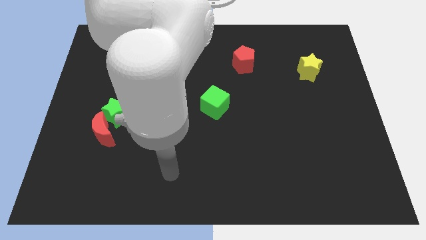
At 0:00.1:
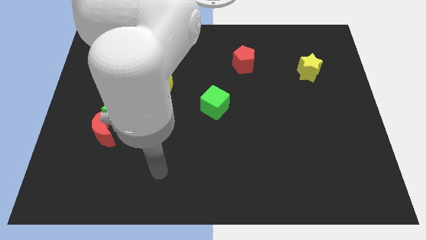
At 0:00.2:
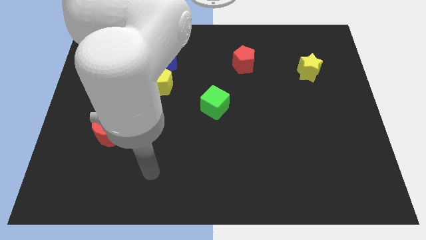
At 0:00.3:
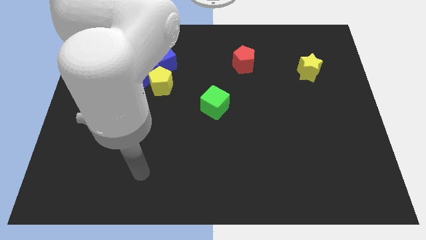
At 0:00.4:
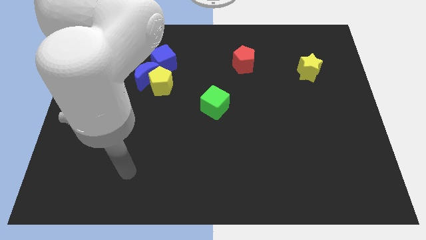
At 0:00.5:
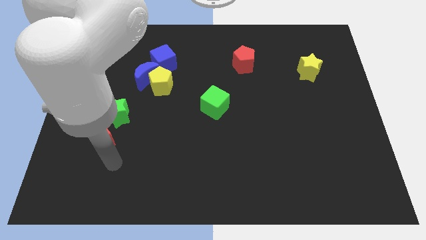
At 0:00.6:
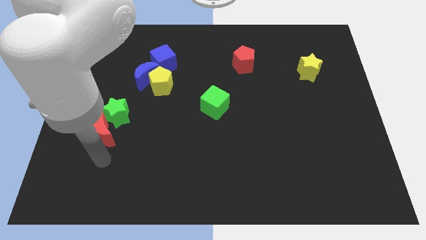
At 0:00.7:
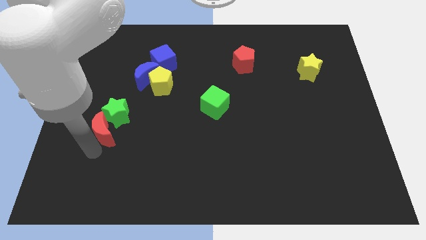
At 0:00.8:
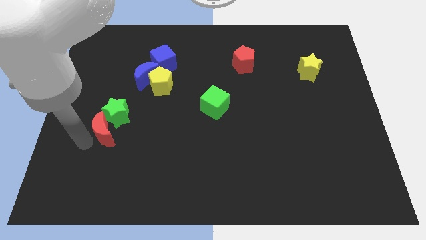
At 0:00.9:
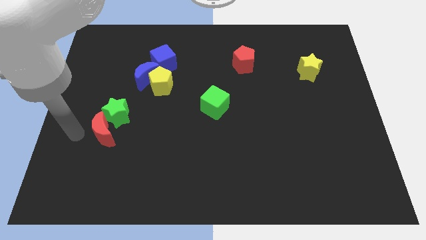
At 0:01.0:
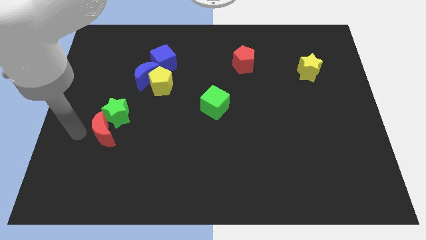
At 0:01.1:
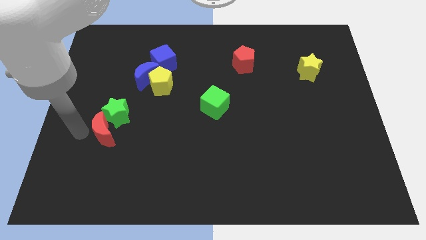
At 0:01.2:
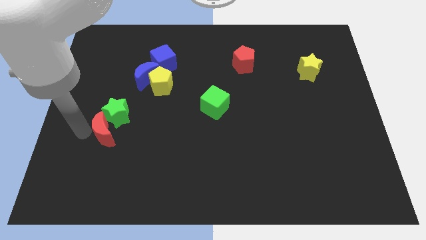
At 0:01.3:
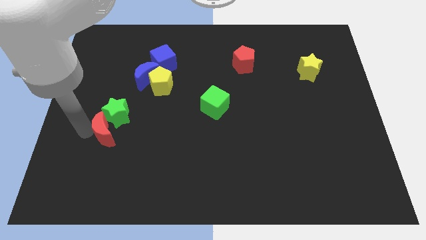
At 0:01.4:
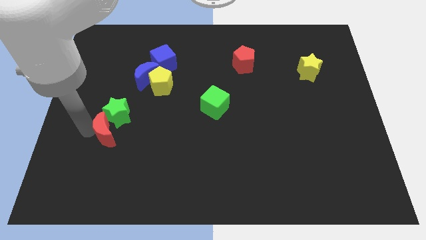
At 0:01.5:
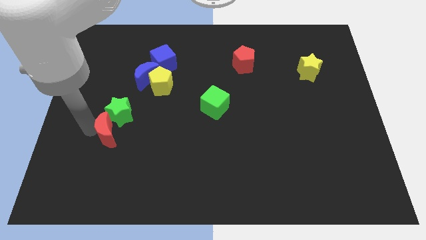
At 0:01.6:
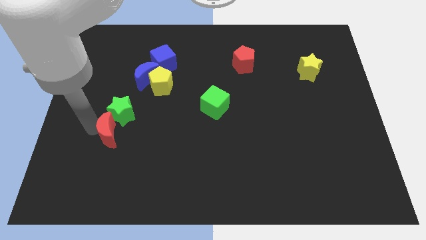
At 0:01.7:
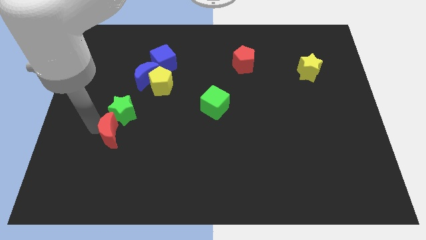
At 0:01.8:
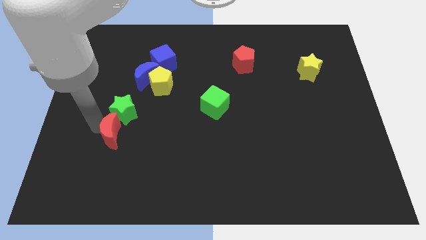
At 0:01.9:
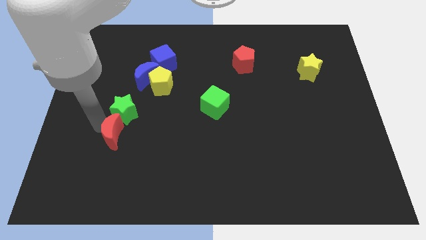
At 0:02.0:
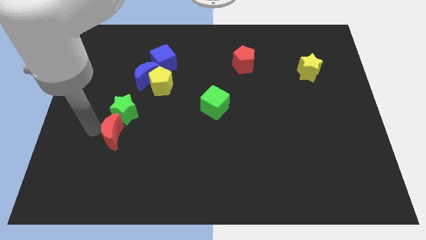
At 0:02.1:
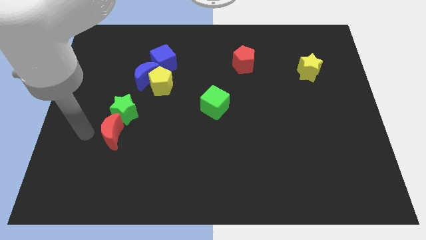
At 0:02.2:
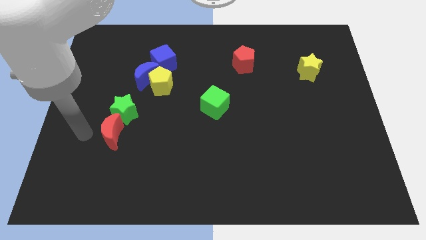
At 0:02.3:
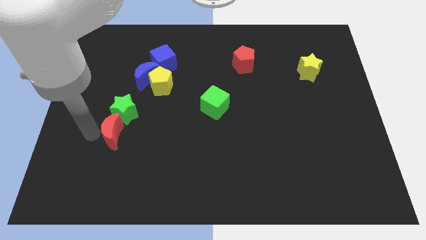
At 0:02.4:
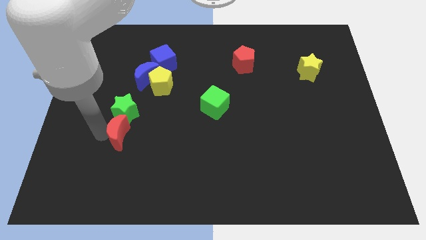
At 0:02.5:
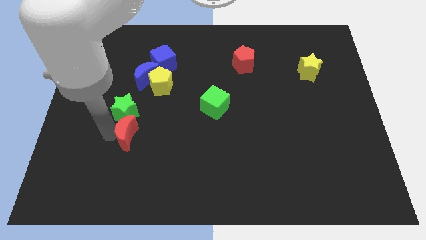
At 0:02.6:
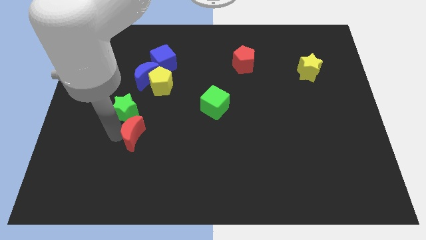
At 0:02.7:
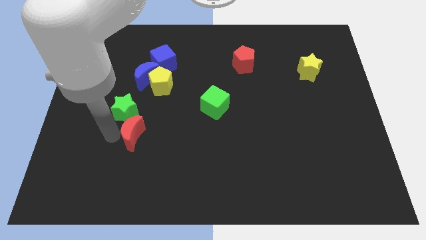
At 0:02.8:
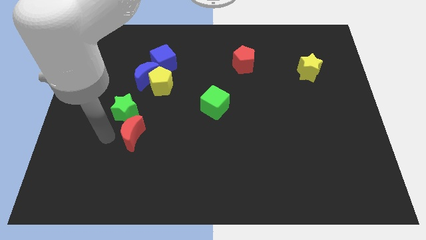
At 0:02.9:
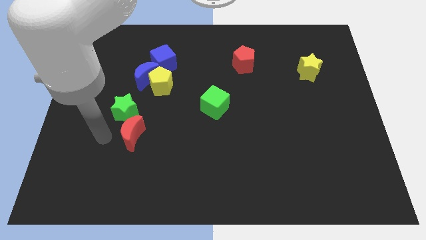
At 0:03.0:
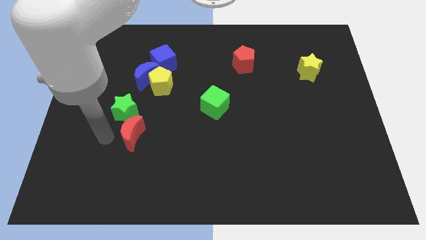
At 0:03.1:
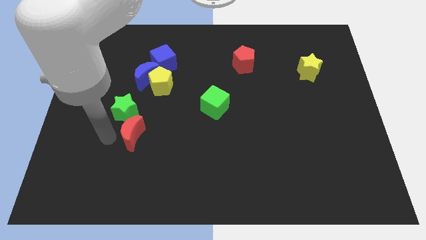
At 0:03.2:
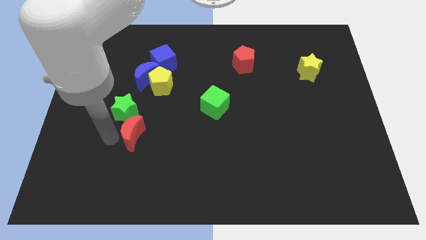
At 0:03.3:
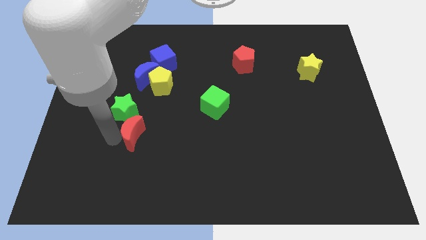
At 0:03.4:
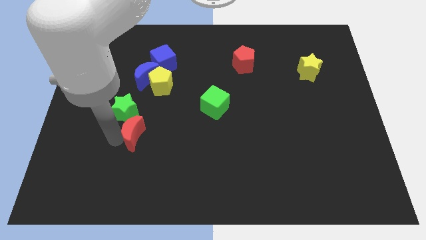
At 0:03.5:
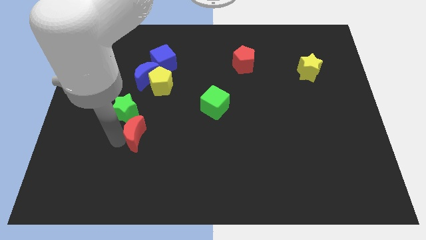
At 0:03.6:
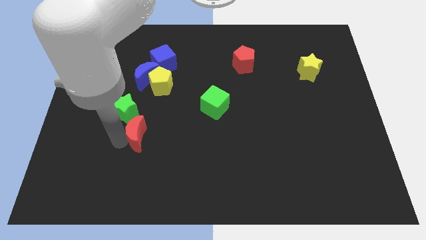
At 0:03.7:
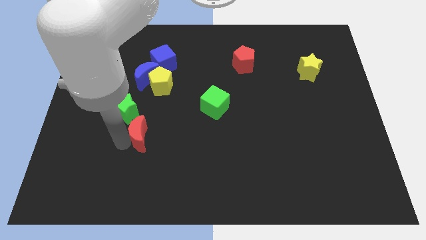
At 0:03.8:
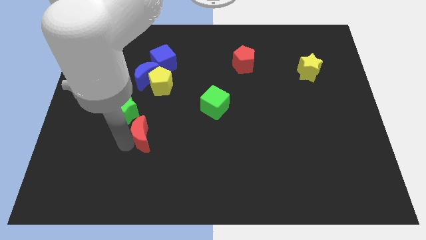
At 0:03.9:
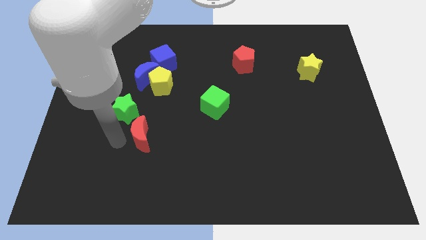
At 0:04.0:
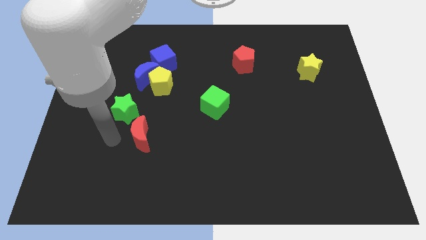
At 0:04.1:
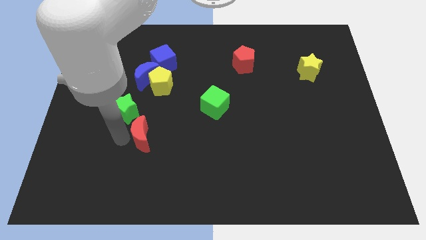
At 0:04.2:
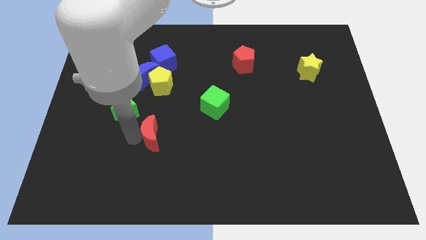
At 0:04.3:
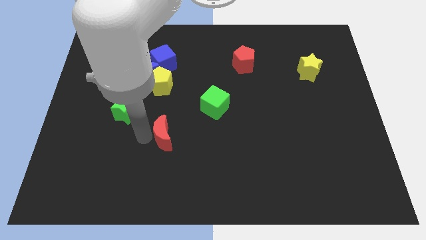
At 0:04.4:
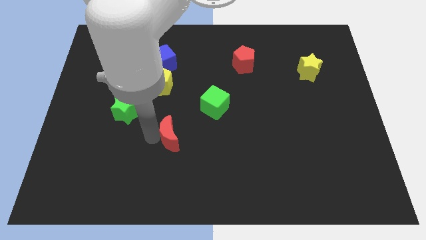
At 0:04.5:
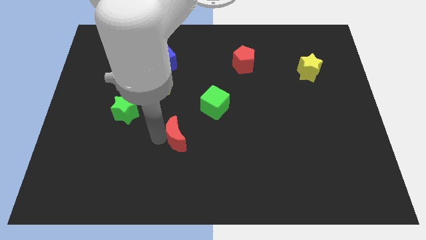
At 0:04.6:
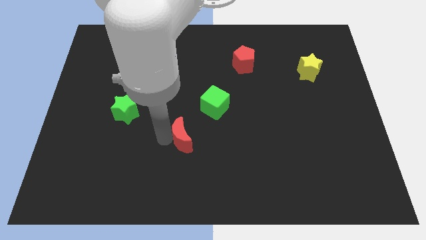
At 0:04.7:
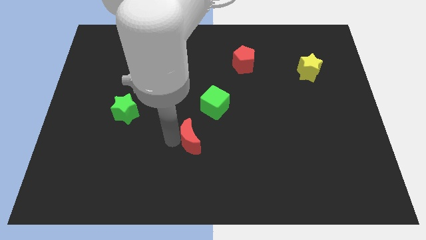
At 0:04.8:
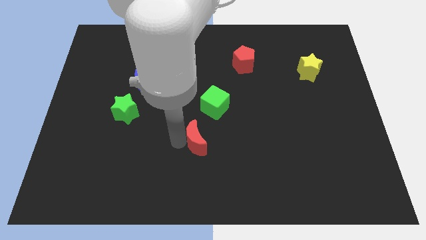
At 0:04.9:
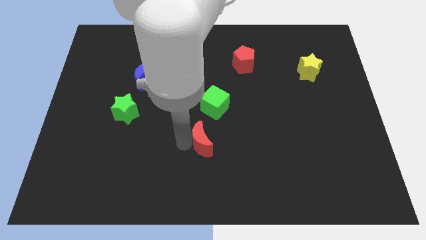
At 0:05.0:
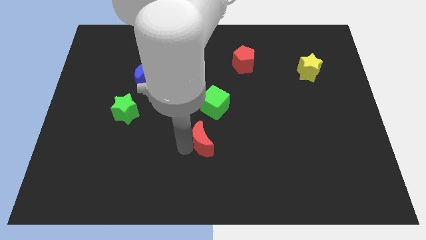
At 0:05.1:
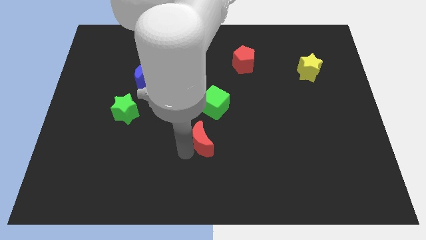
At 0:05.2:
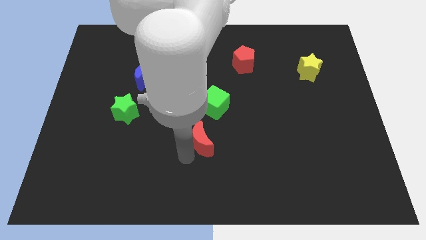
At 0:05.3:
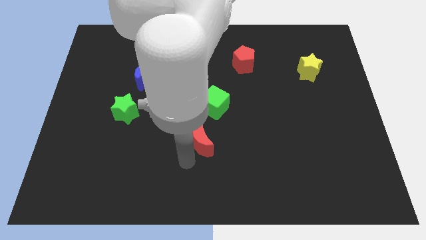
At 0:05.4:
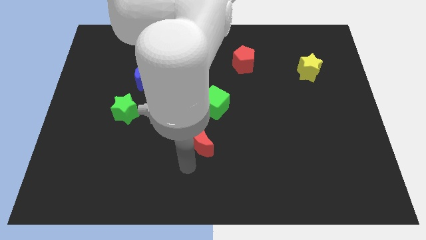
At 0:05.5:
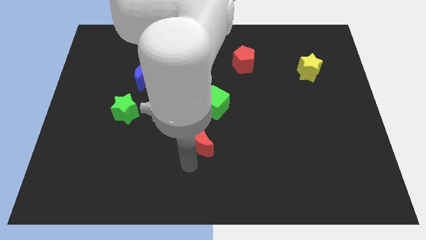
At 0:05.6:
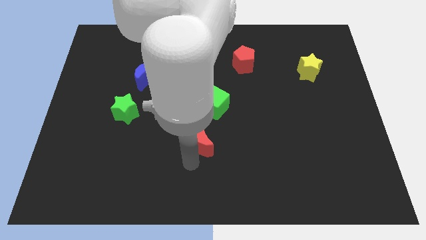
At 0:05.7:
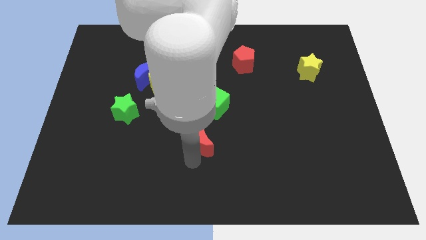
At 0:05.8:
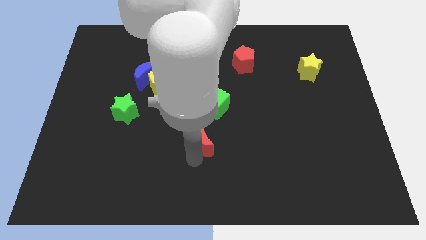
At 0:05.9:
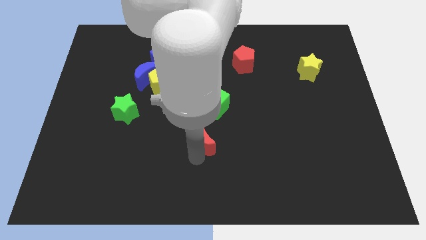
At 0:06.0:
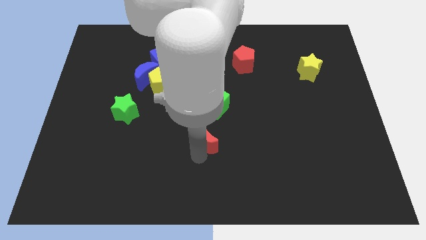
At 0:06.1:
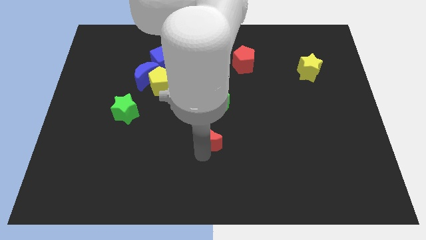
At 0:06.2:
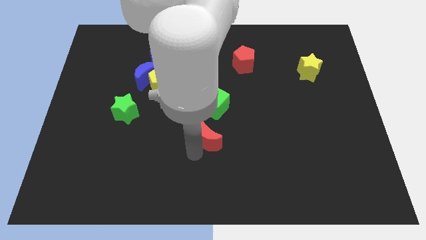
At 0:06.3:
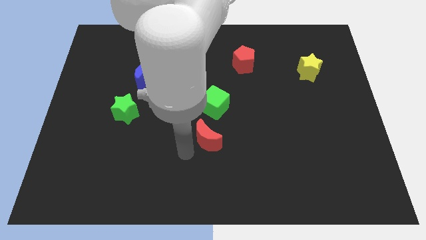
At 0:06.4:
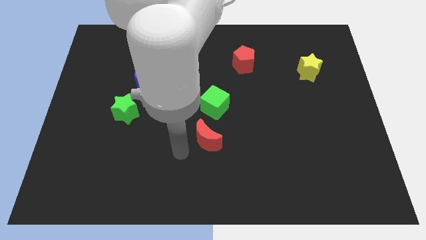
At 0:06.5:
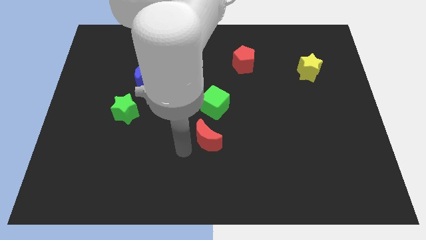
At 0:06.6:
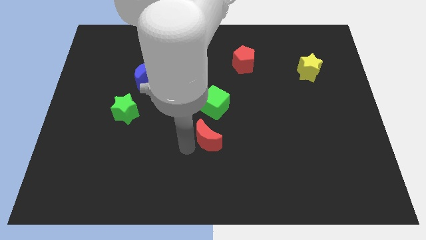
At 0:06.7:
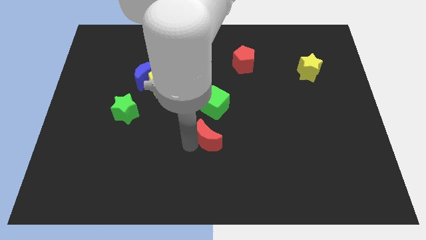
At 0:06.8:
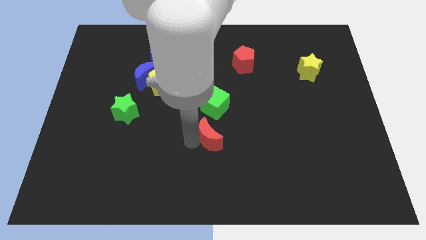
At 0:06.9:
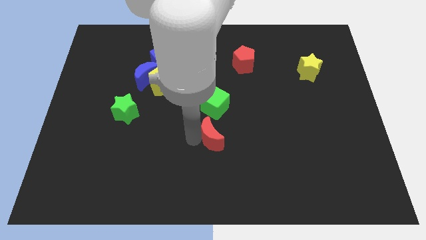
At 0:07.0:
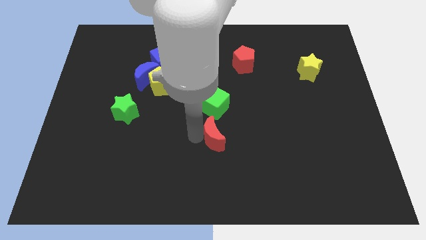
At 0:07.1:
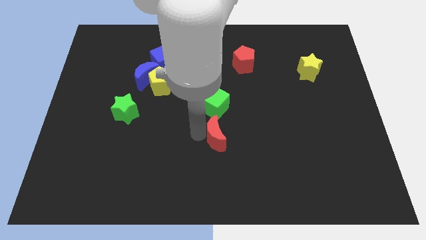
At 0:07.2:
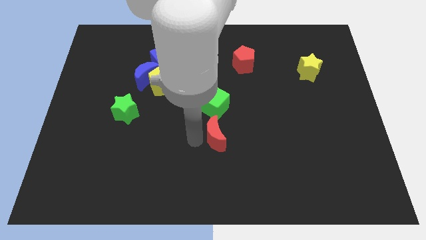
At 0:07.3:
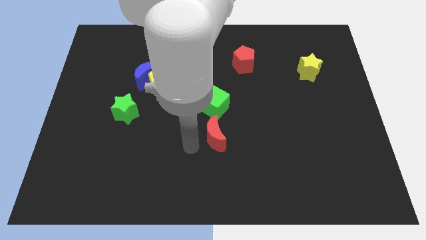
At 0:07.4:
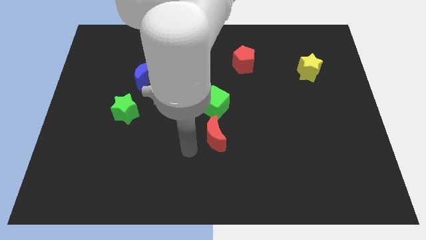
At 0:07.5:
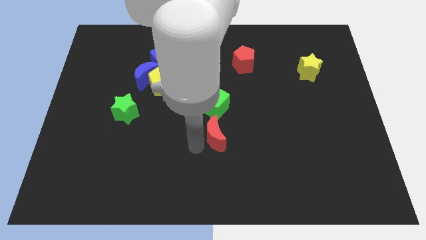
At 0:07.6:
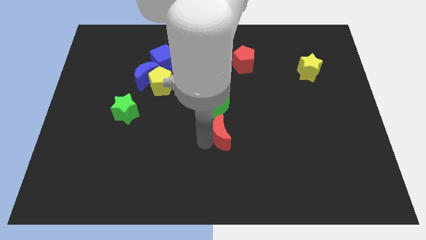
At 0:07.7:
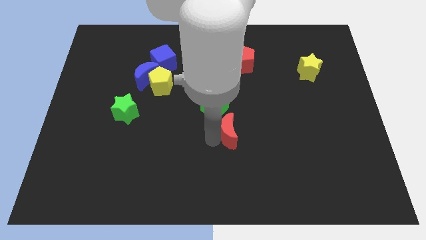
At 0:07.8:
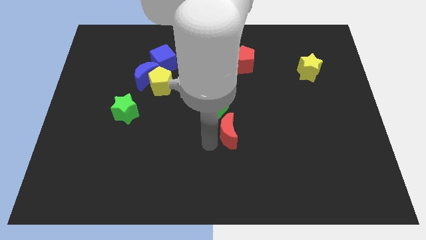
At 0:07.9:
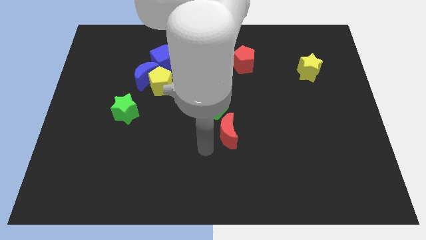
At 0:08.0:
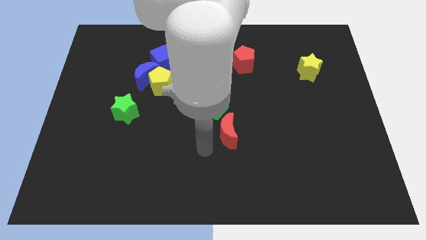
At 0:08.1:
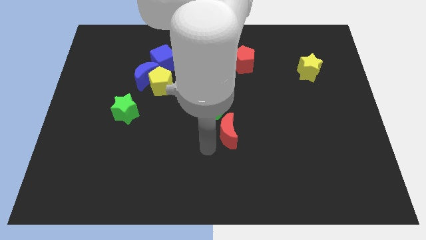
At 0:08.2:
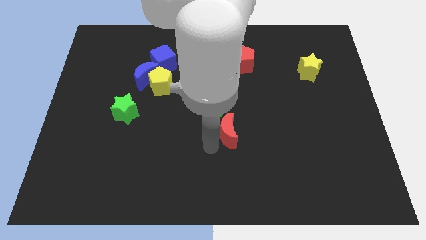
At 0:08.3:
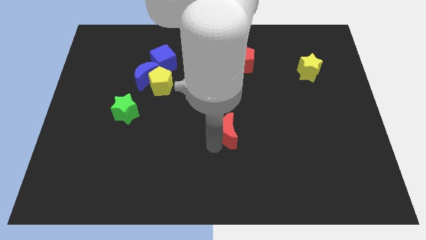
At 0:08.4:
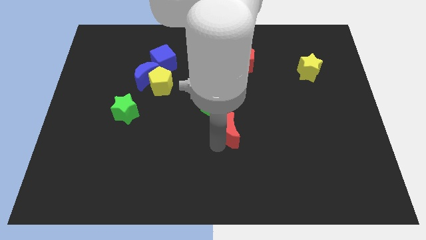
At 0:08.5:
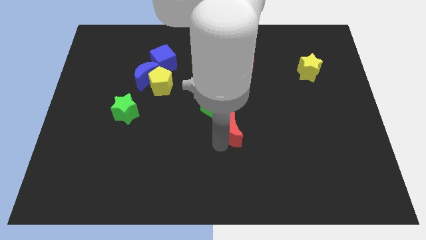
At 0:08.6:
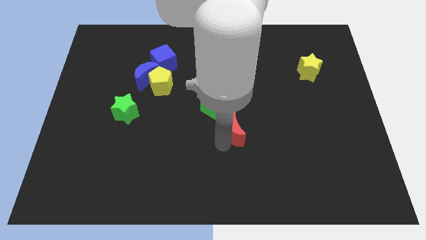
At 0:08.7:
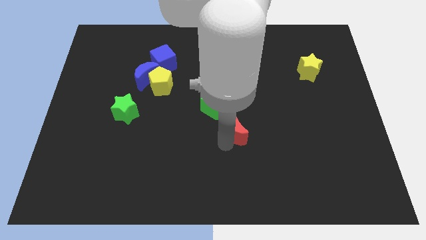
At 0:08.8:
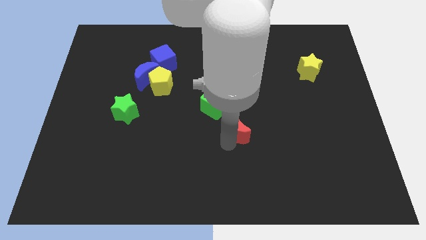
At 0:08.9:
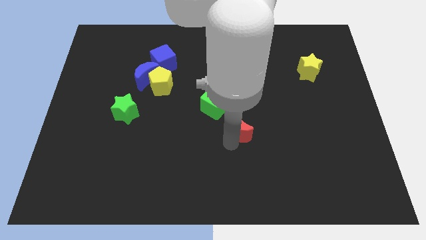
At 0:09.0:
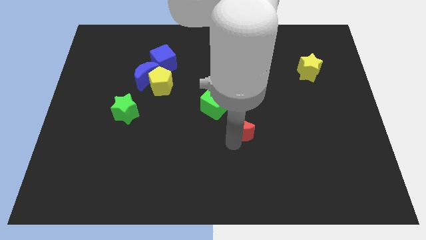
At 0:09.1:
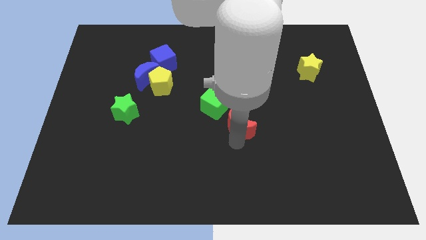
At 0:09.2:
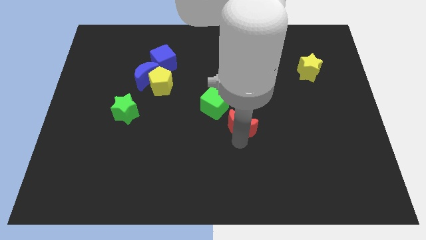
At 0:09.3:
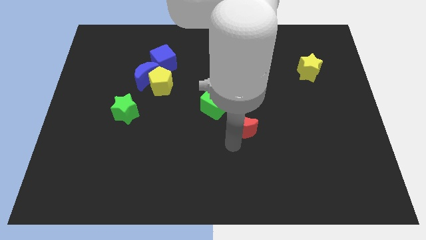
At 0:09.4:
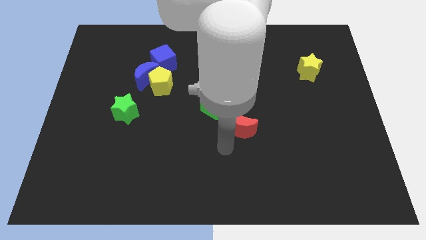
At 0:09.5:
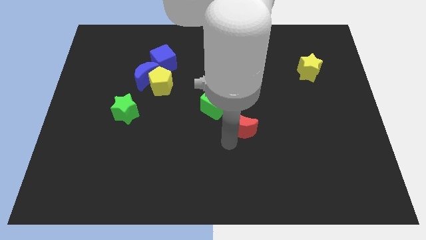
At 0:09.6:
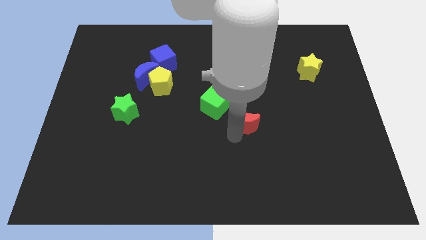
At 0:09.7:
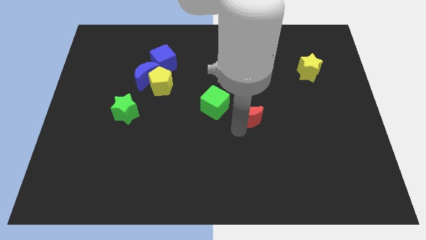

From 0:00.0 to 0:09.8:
slide the red moon to the right side of the green cube
